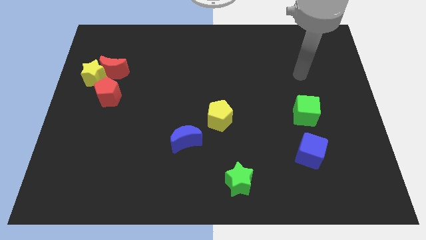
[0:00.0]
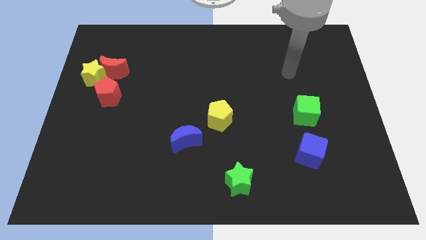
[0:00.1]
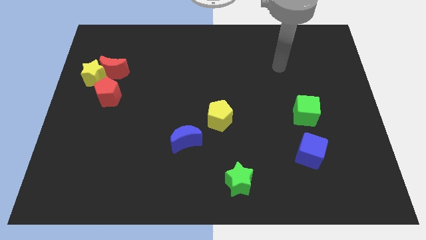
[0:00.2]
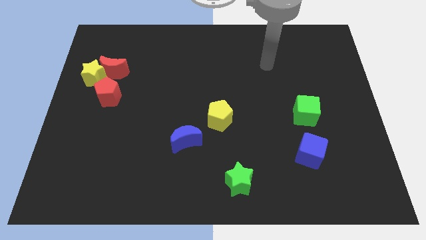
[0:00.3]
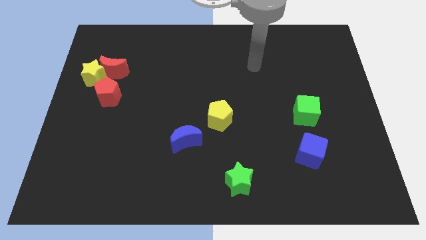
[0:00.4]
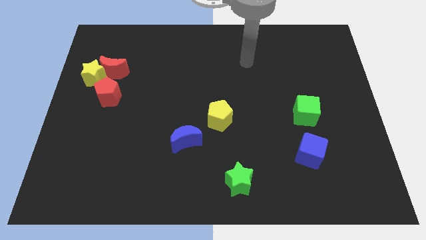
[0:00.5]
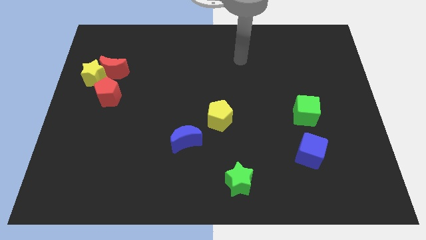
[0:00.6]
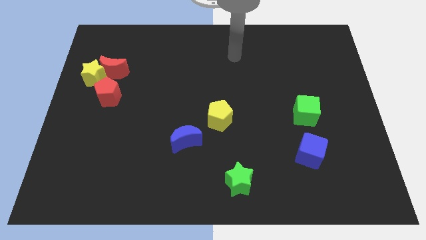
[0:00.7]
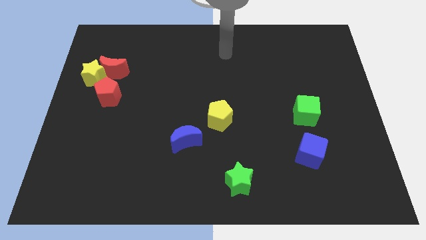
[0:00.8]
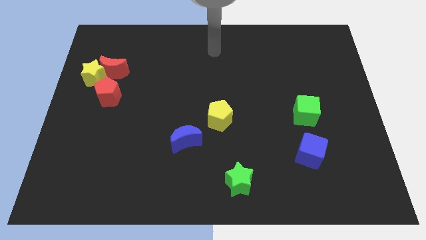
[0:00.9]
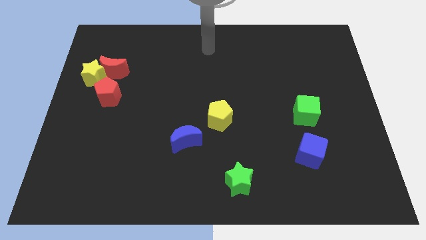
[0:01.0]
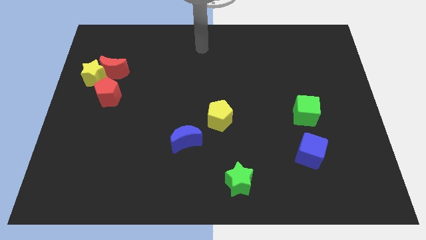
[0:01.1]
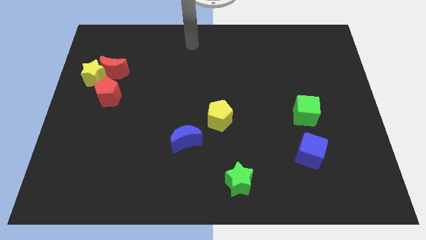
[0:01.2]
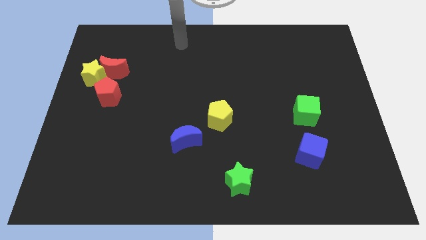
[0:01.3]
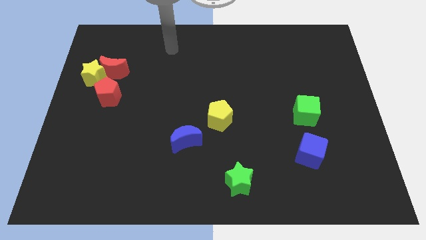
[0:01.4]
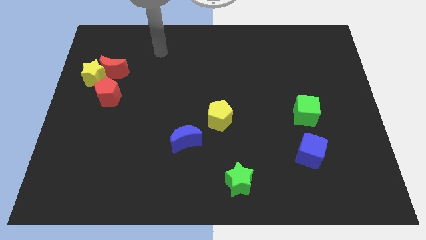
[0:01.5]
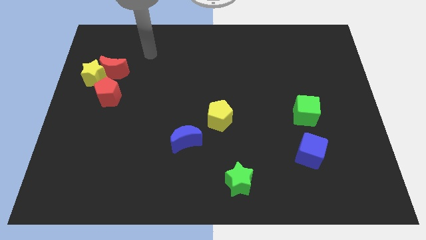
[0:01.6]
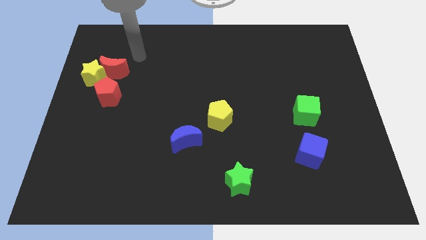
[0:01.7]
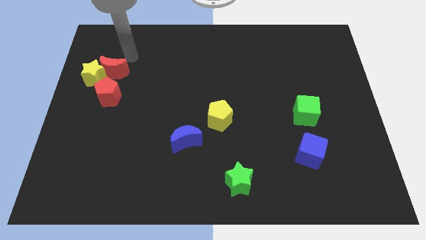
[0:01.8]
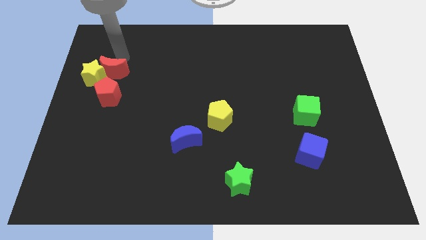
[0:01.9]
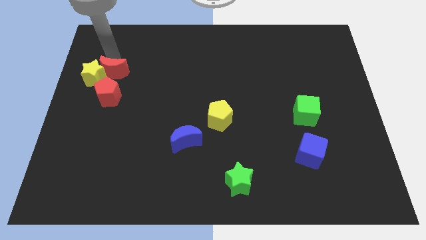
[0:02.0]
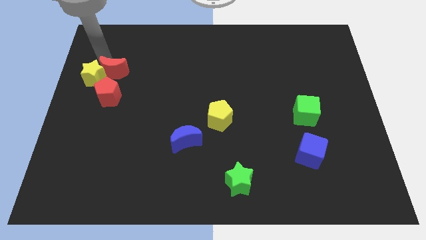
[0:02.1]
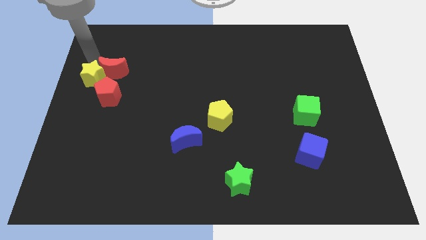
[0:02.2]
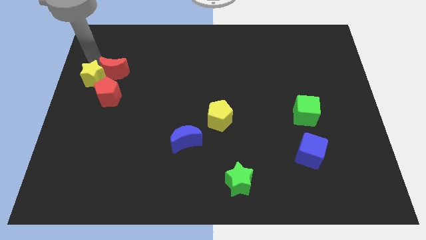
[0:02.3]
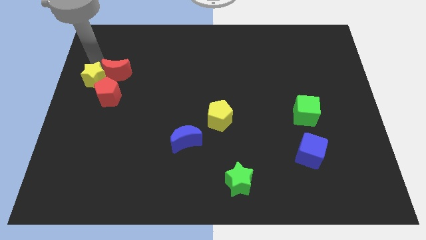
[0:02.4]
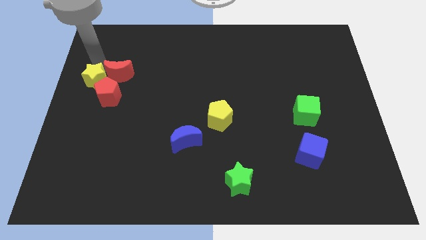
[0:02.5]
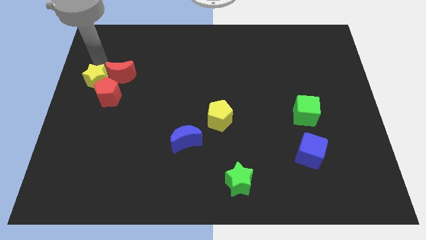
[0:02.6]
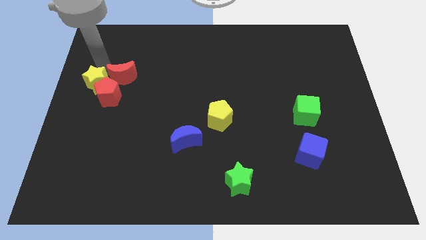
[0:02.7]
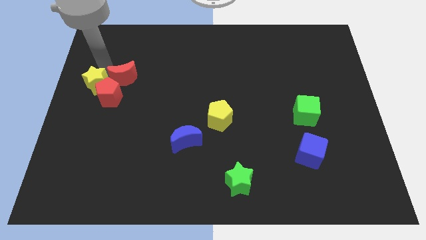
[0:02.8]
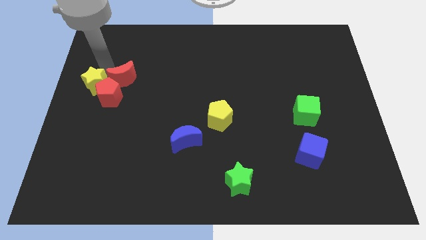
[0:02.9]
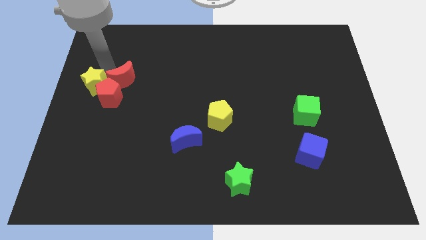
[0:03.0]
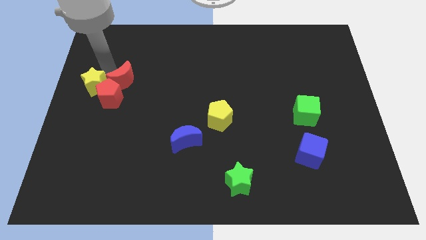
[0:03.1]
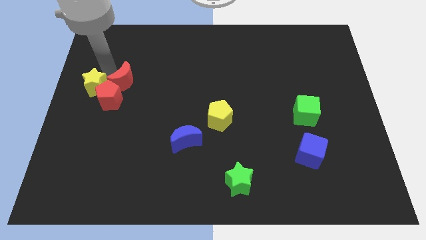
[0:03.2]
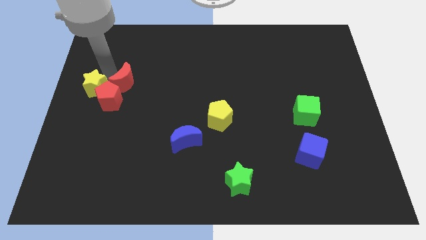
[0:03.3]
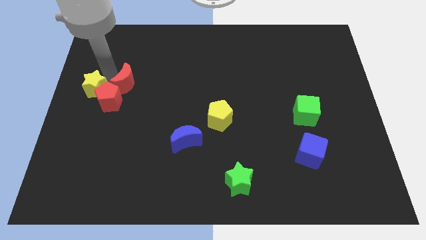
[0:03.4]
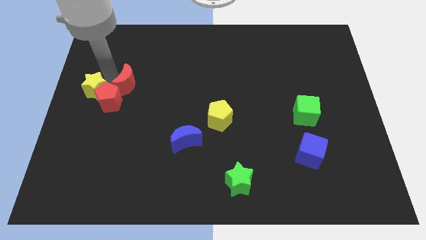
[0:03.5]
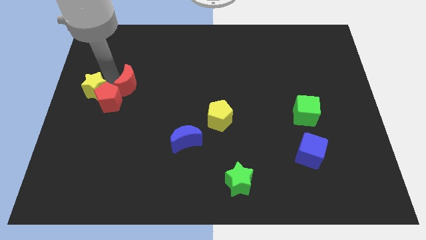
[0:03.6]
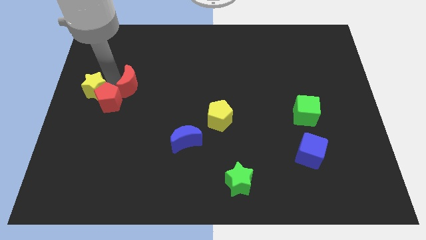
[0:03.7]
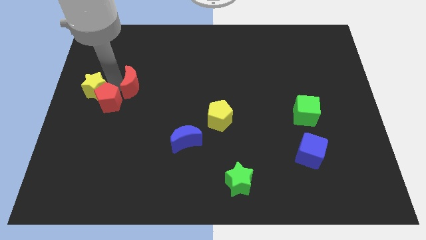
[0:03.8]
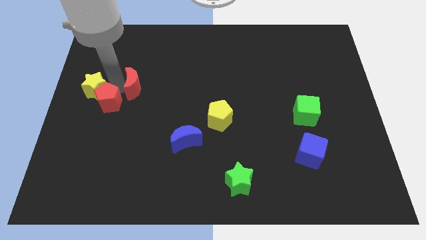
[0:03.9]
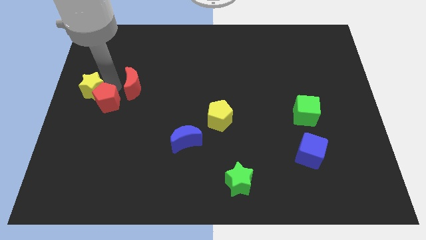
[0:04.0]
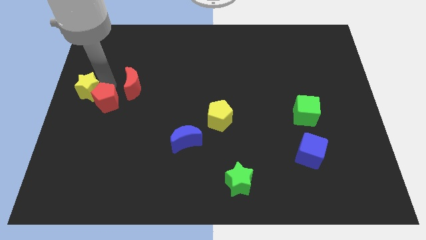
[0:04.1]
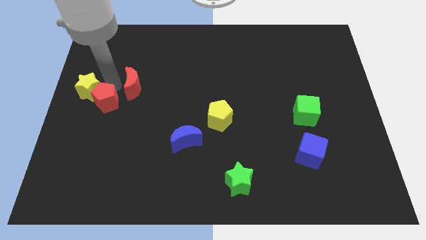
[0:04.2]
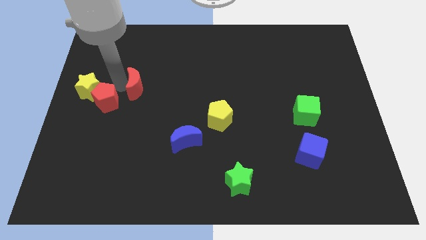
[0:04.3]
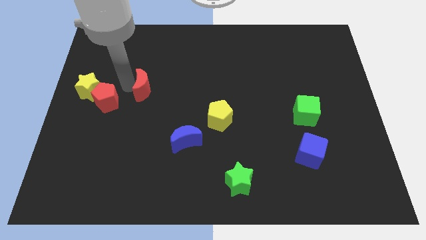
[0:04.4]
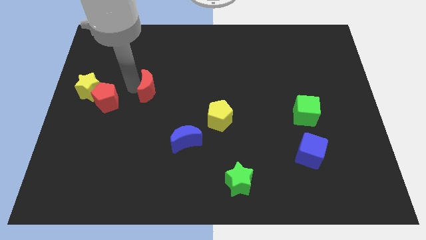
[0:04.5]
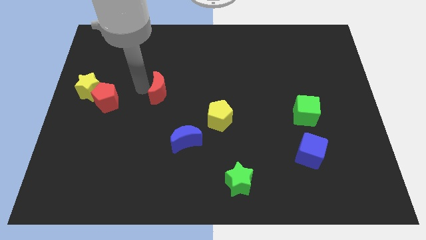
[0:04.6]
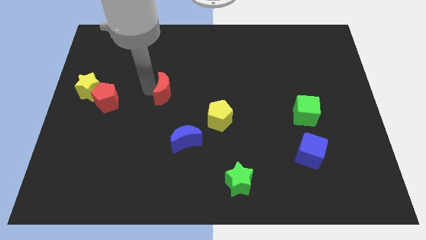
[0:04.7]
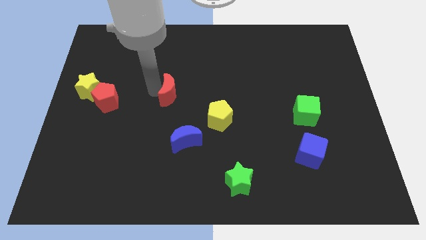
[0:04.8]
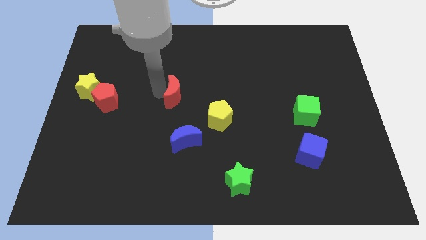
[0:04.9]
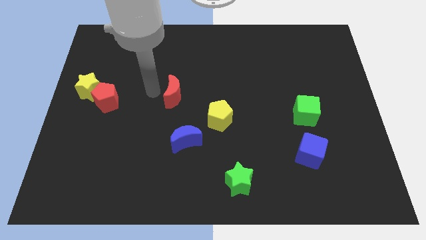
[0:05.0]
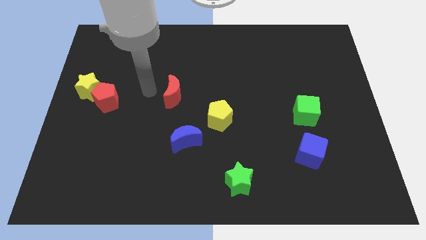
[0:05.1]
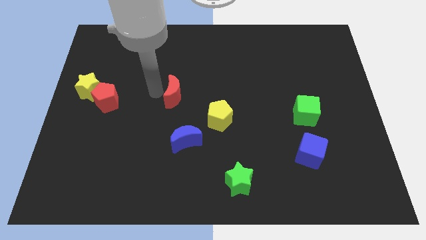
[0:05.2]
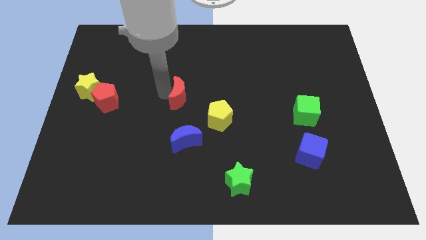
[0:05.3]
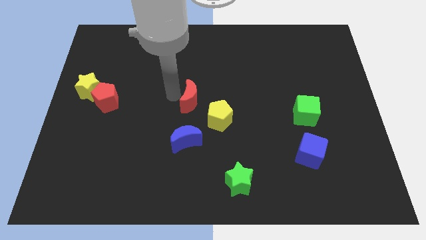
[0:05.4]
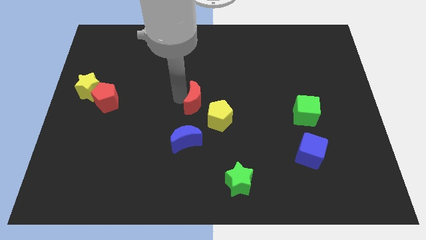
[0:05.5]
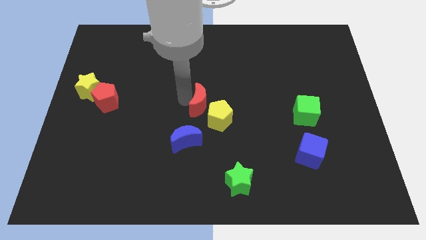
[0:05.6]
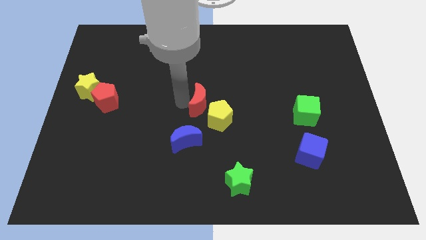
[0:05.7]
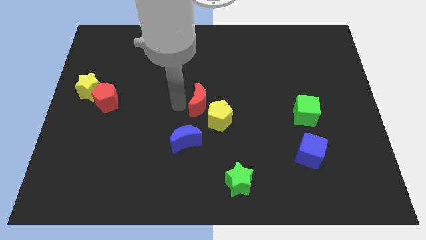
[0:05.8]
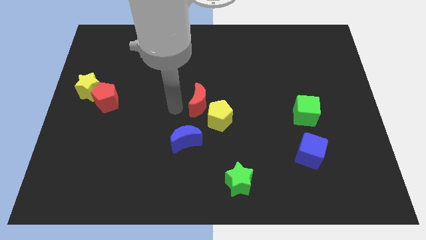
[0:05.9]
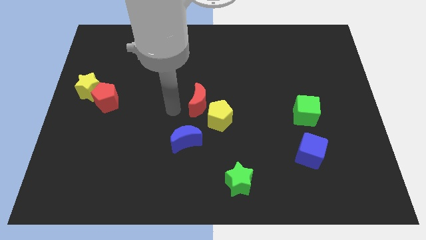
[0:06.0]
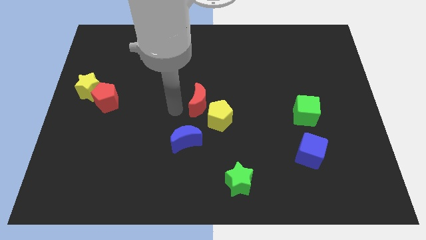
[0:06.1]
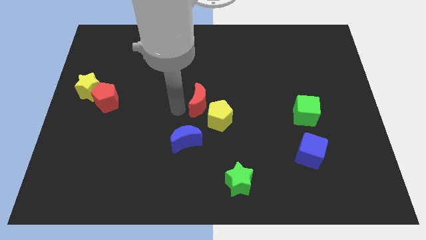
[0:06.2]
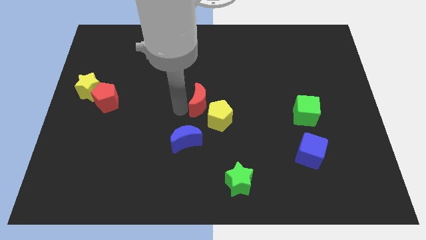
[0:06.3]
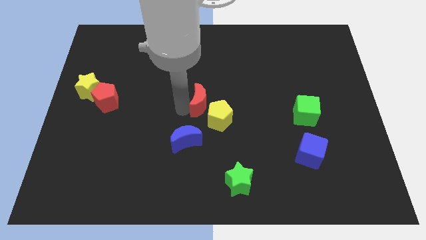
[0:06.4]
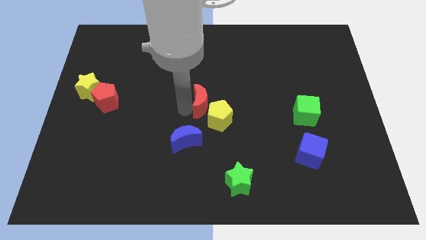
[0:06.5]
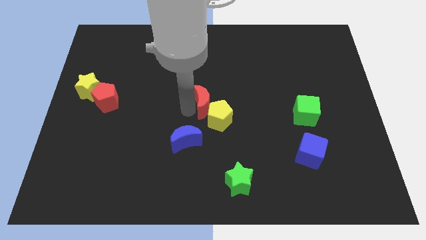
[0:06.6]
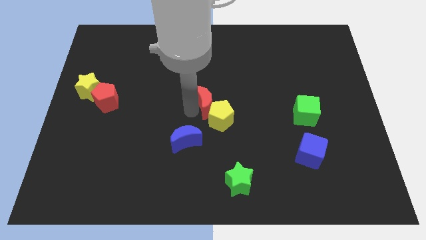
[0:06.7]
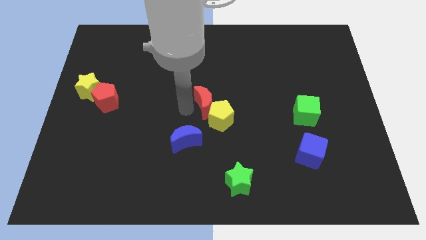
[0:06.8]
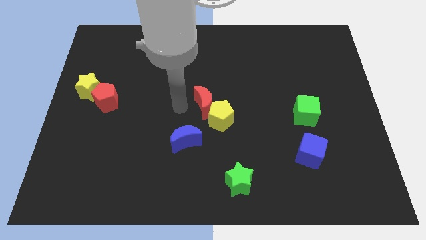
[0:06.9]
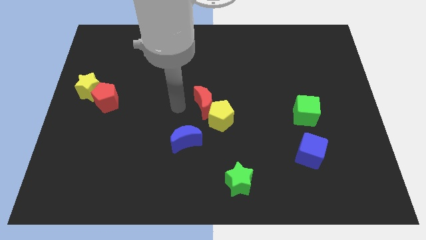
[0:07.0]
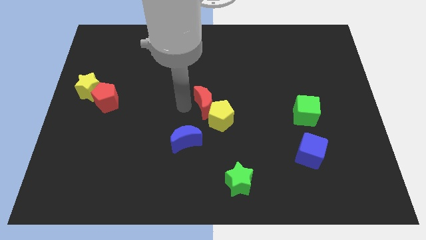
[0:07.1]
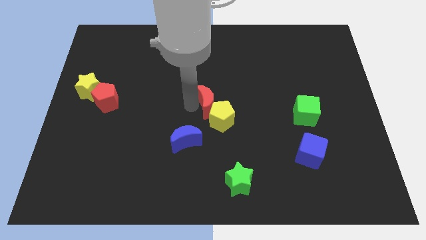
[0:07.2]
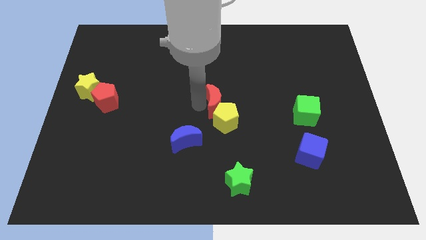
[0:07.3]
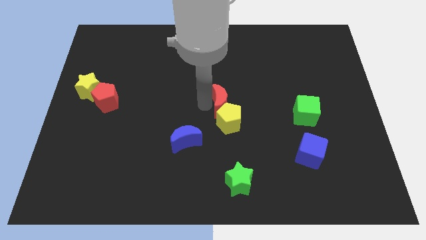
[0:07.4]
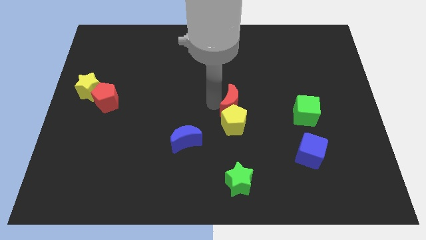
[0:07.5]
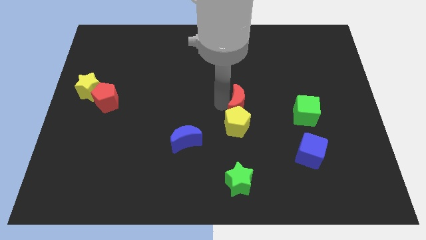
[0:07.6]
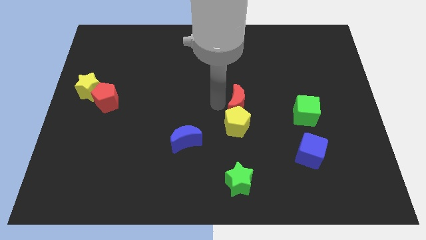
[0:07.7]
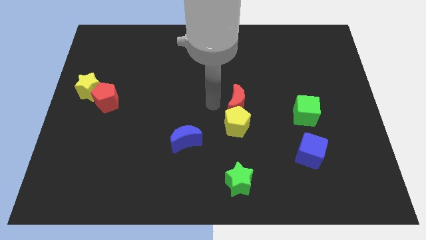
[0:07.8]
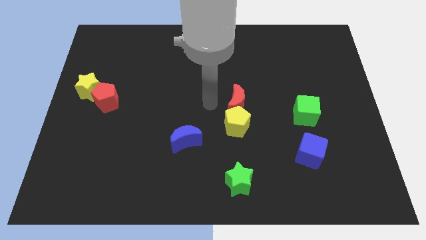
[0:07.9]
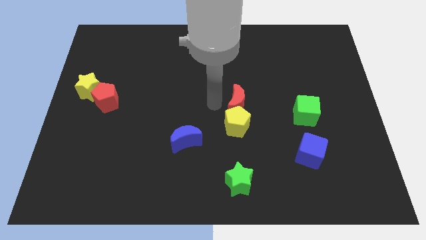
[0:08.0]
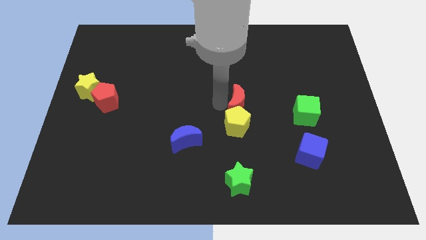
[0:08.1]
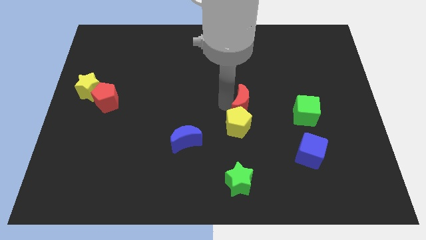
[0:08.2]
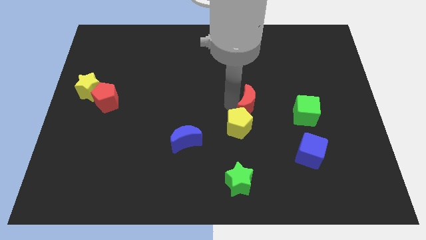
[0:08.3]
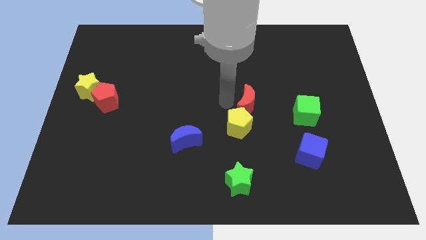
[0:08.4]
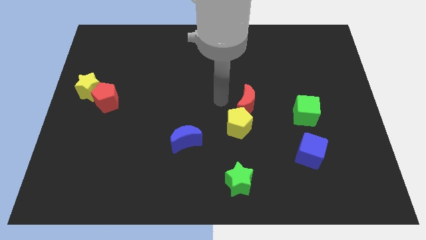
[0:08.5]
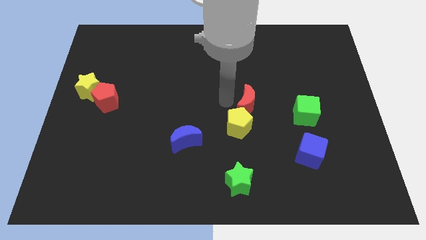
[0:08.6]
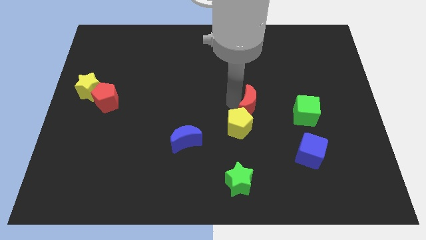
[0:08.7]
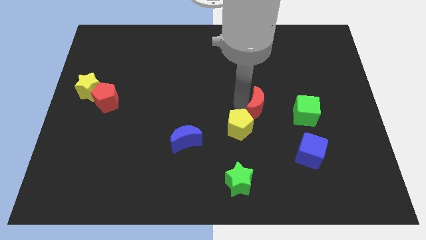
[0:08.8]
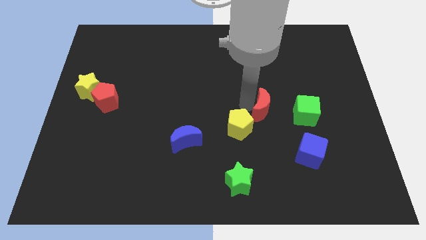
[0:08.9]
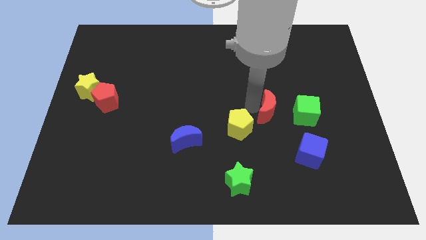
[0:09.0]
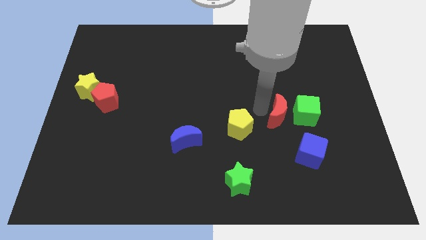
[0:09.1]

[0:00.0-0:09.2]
slide the red moon close to the green cube
